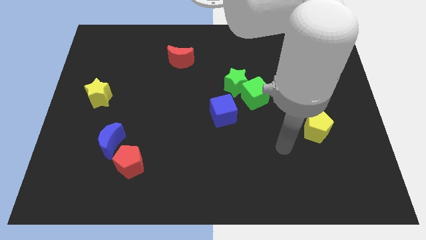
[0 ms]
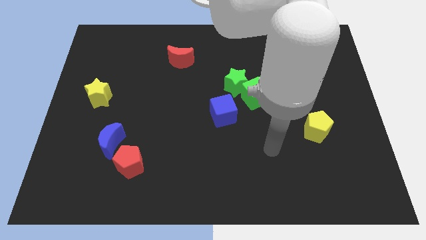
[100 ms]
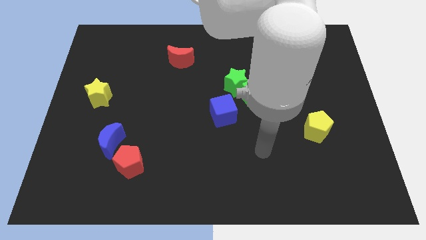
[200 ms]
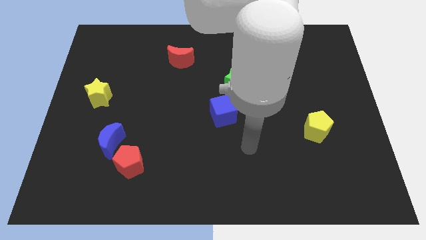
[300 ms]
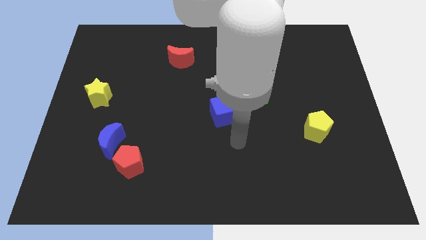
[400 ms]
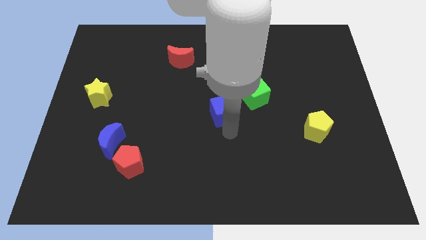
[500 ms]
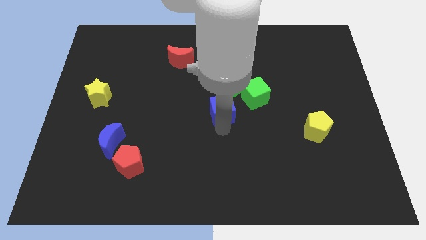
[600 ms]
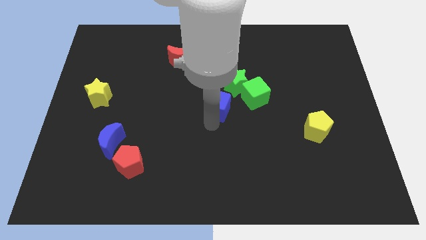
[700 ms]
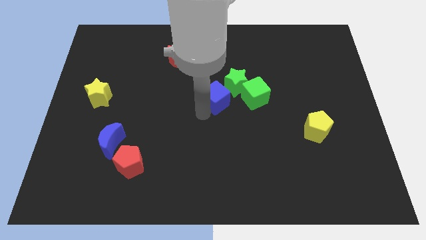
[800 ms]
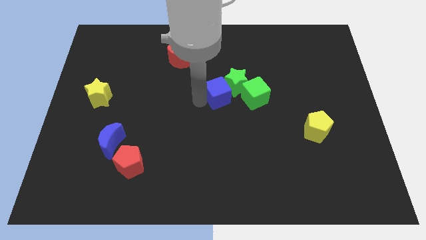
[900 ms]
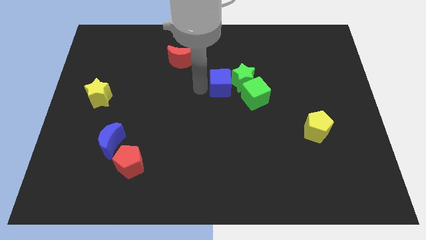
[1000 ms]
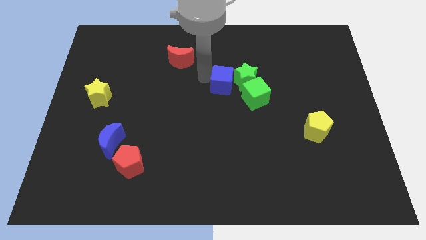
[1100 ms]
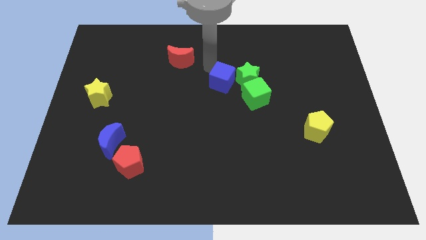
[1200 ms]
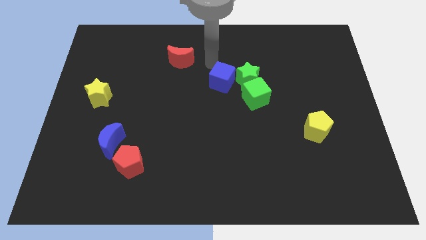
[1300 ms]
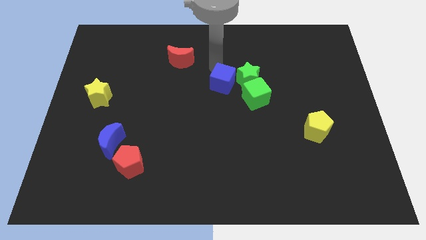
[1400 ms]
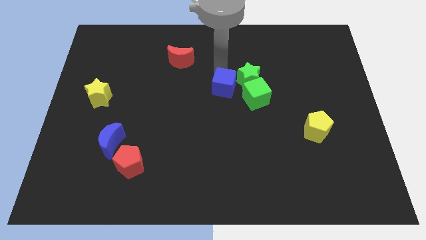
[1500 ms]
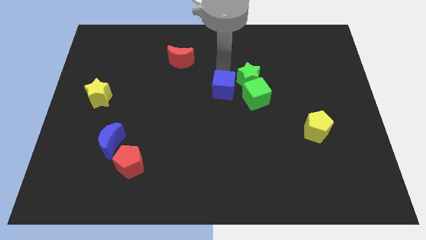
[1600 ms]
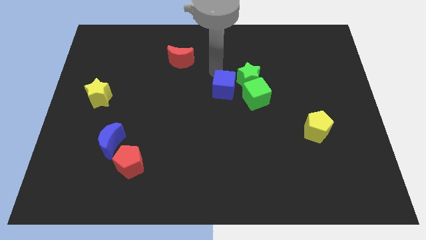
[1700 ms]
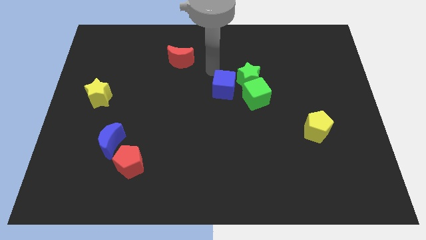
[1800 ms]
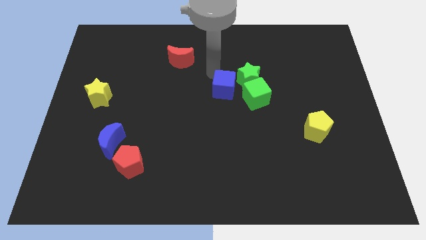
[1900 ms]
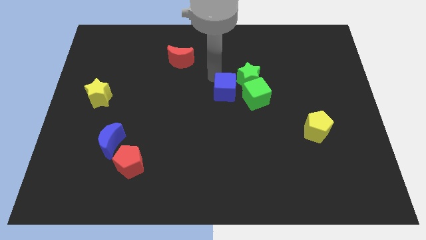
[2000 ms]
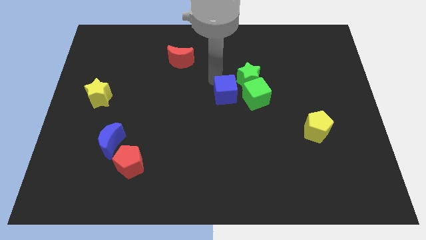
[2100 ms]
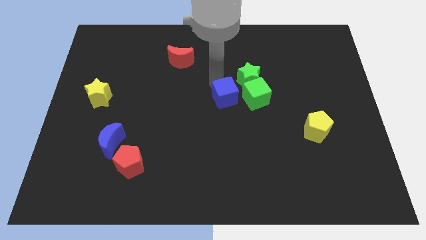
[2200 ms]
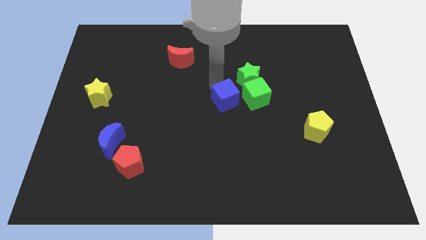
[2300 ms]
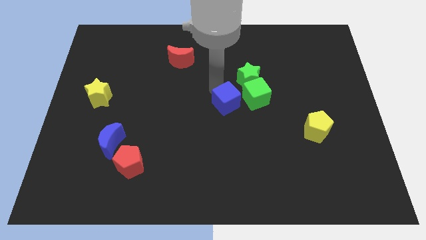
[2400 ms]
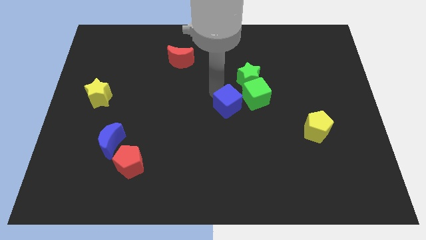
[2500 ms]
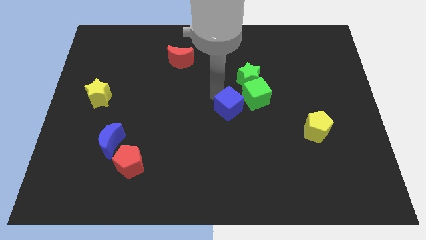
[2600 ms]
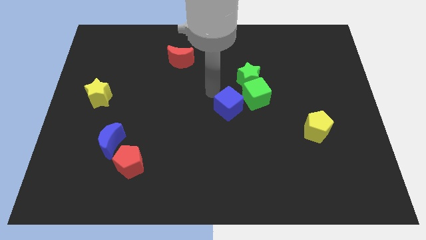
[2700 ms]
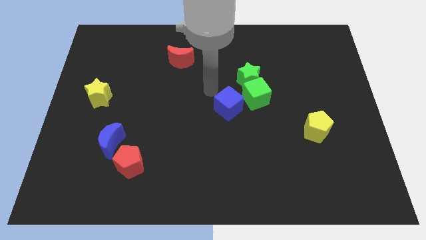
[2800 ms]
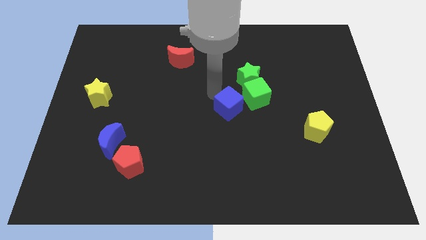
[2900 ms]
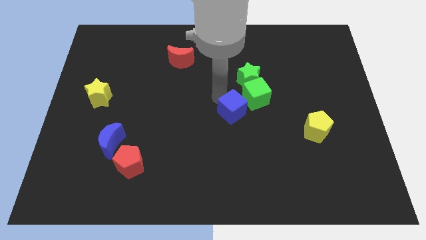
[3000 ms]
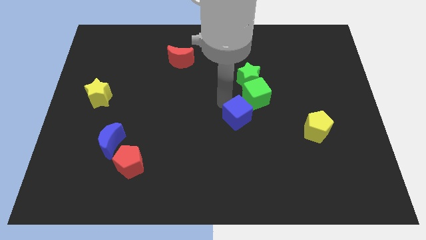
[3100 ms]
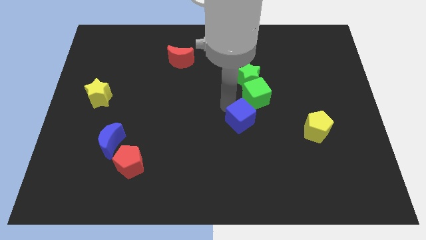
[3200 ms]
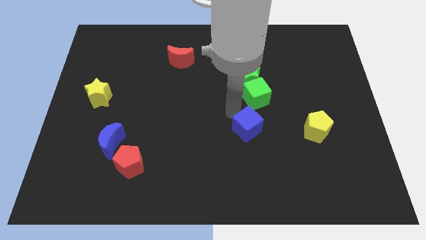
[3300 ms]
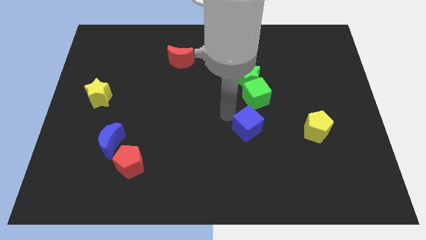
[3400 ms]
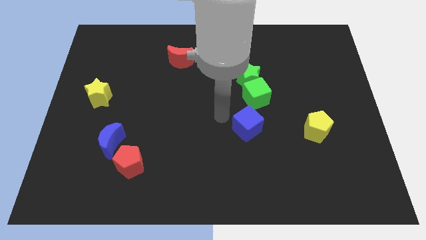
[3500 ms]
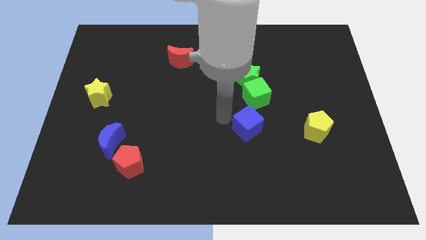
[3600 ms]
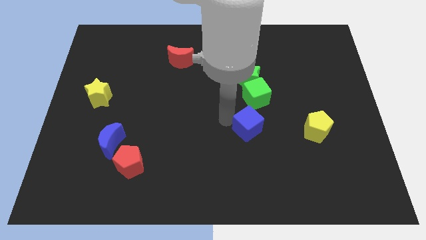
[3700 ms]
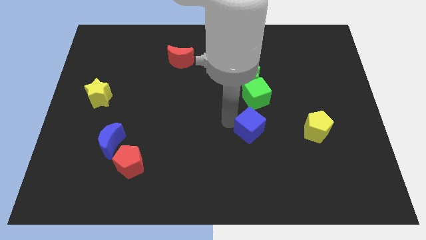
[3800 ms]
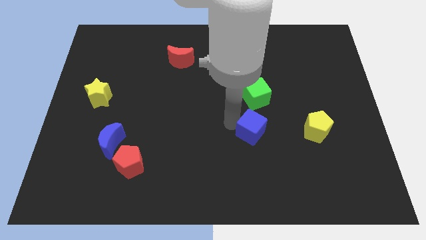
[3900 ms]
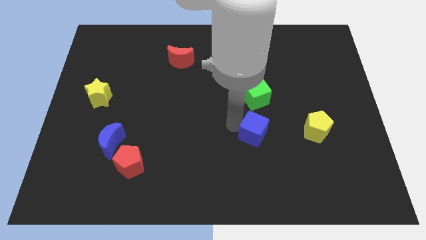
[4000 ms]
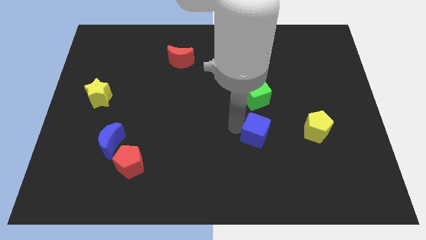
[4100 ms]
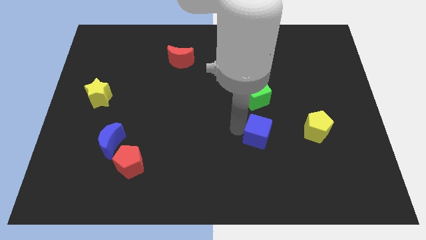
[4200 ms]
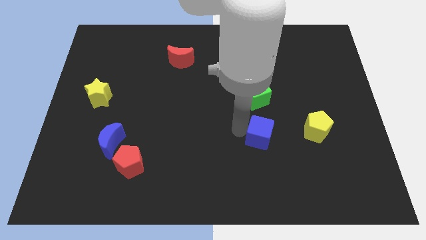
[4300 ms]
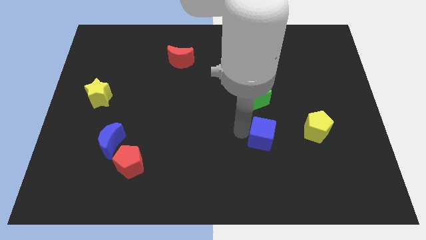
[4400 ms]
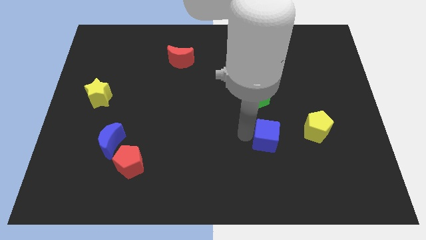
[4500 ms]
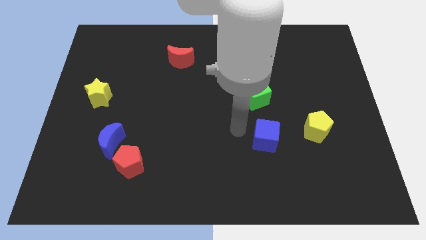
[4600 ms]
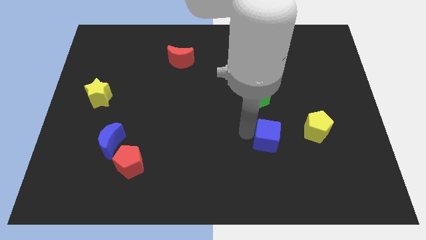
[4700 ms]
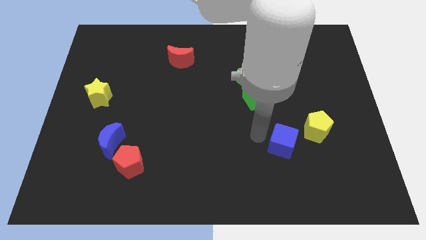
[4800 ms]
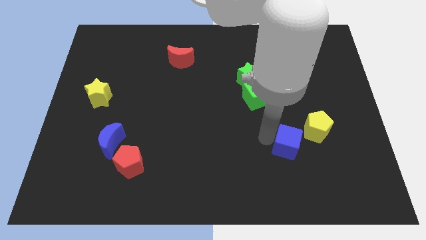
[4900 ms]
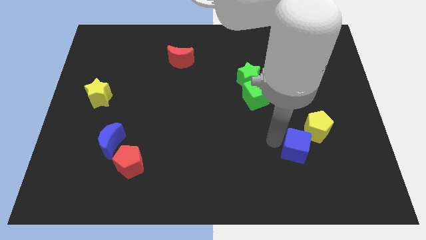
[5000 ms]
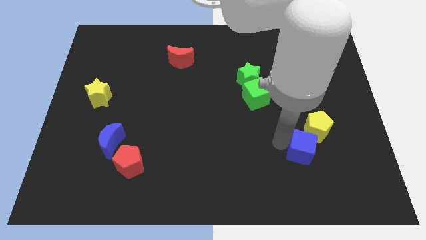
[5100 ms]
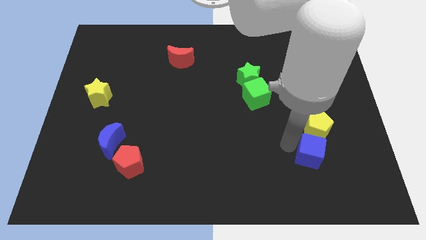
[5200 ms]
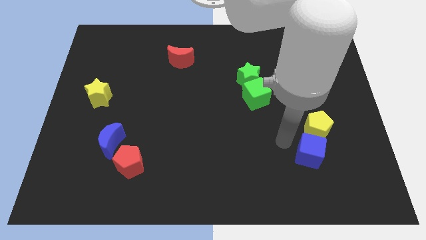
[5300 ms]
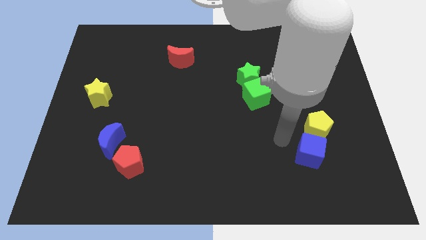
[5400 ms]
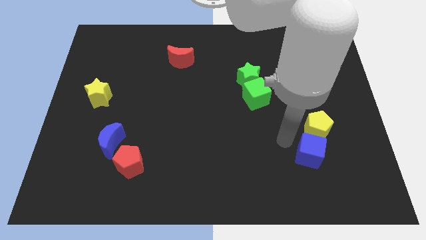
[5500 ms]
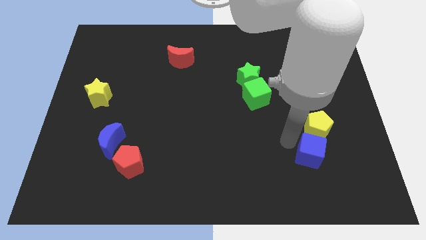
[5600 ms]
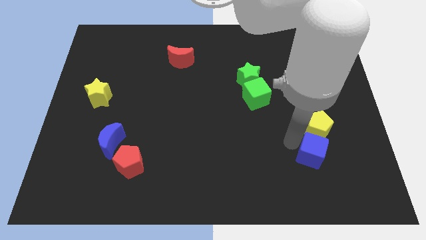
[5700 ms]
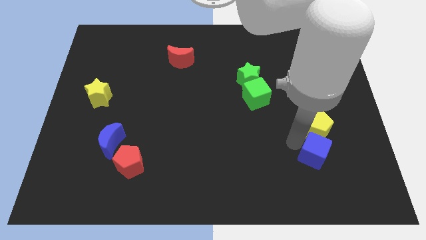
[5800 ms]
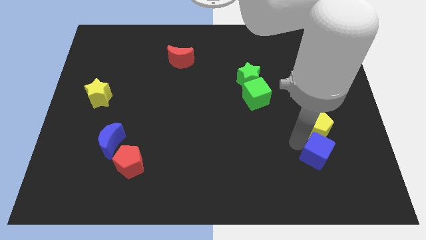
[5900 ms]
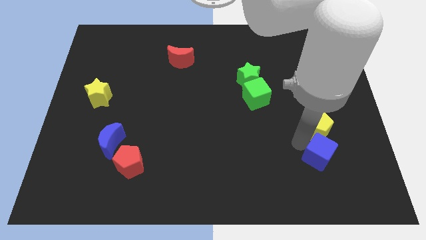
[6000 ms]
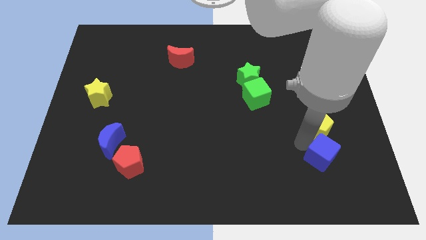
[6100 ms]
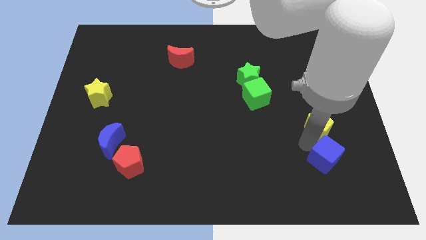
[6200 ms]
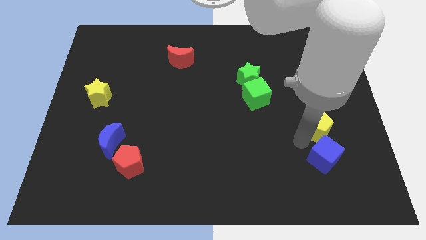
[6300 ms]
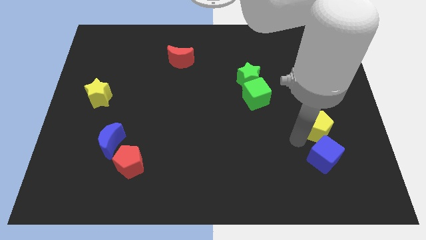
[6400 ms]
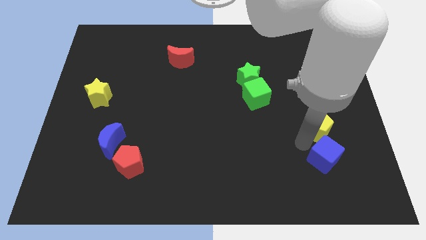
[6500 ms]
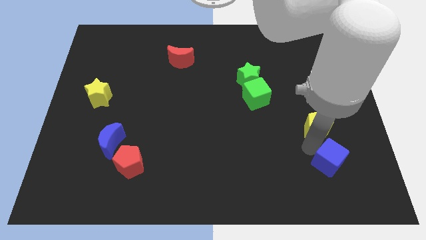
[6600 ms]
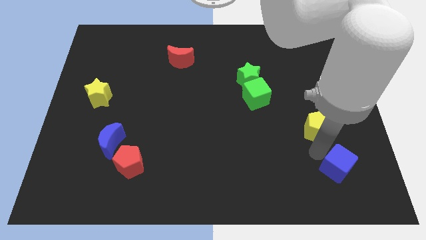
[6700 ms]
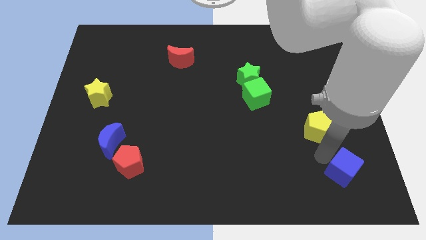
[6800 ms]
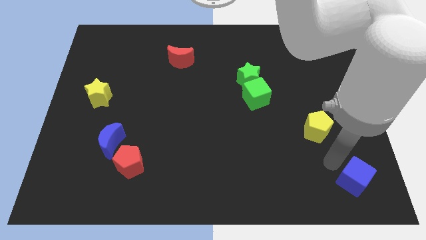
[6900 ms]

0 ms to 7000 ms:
move the blue cube to the bottom right
